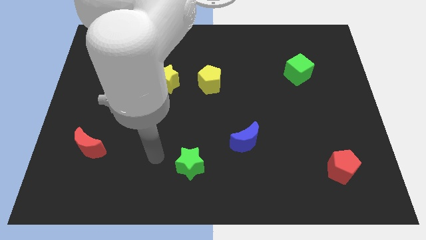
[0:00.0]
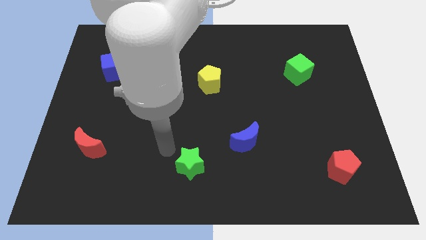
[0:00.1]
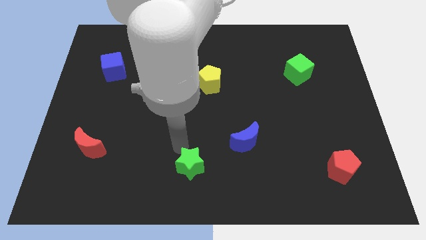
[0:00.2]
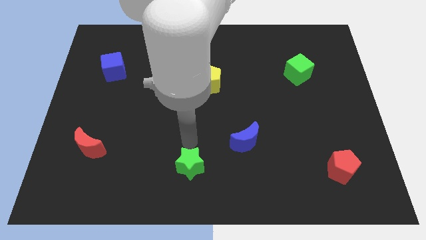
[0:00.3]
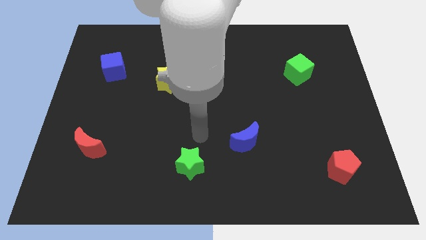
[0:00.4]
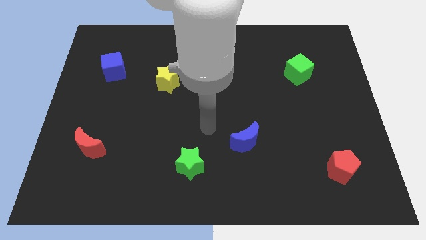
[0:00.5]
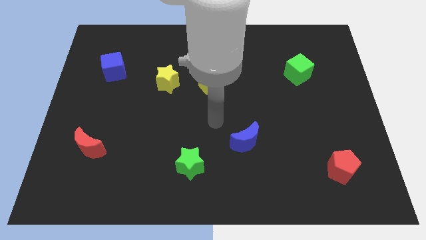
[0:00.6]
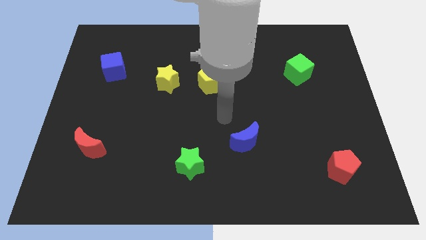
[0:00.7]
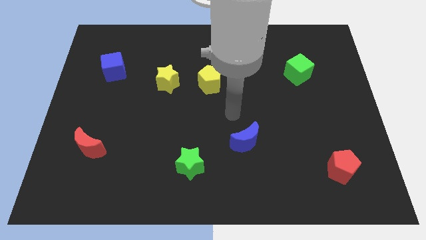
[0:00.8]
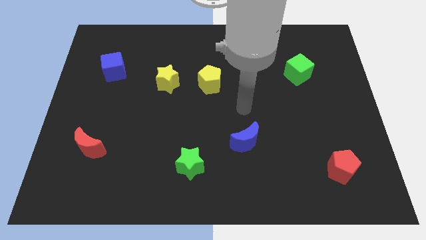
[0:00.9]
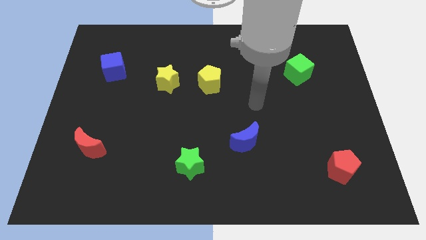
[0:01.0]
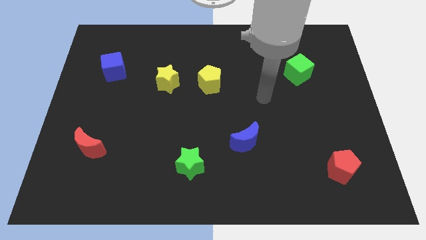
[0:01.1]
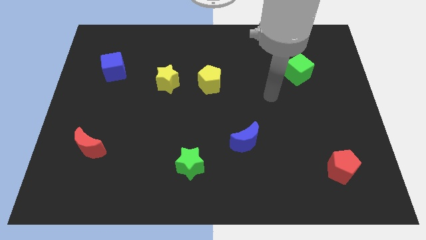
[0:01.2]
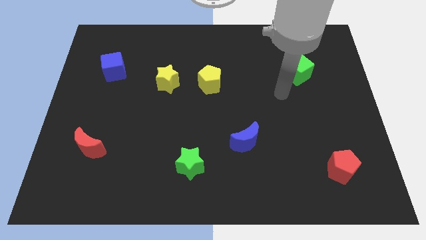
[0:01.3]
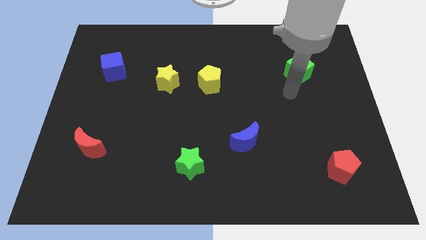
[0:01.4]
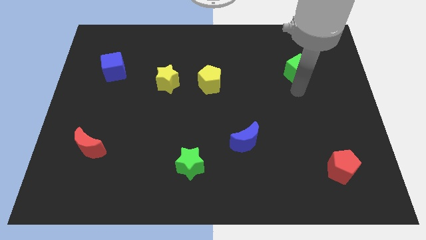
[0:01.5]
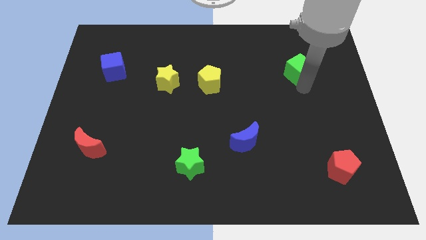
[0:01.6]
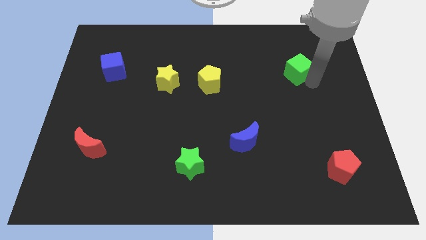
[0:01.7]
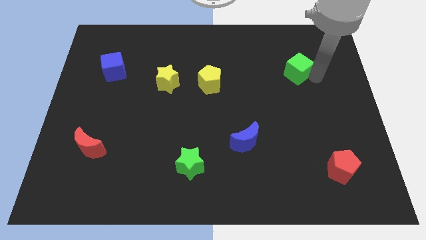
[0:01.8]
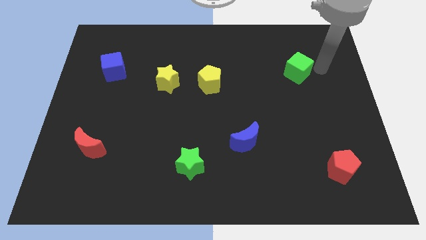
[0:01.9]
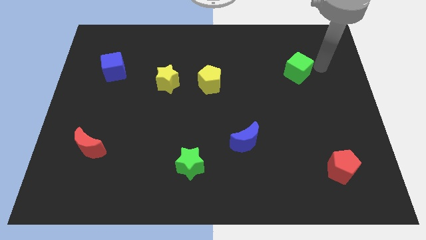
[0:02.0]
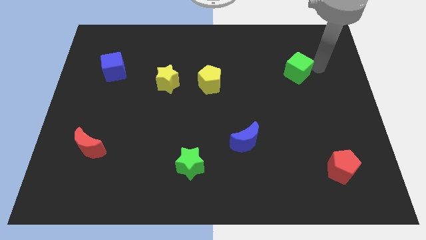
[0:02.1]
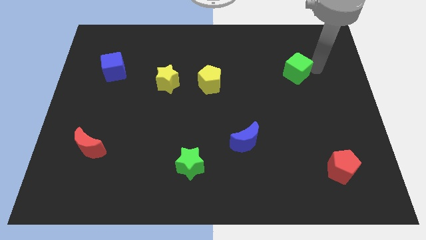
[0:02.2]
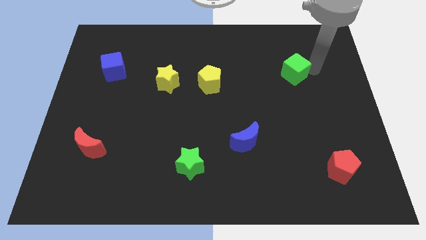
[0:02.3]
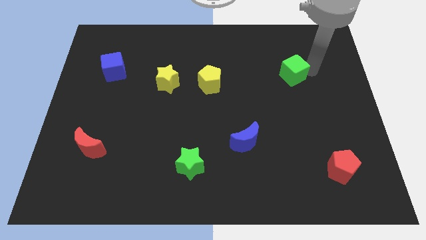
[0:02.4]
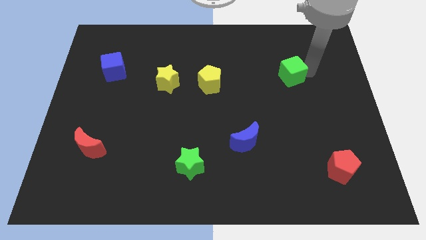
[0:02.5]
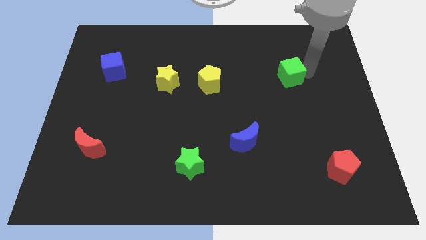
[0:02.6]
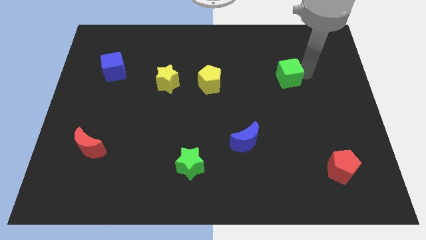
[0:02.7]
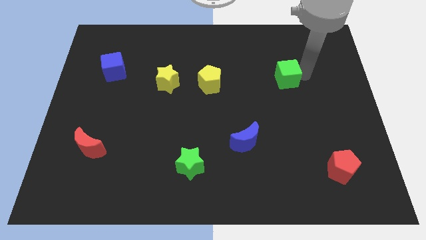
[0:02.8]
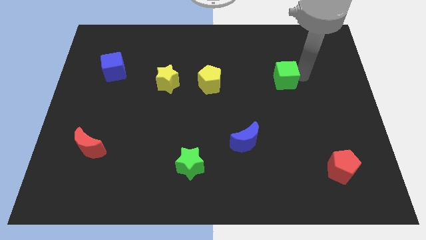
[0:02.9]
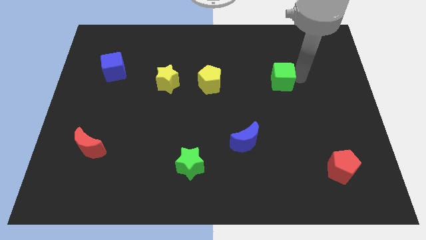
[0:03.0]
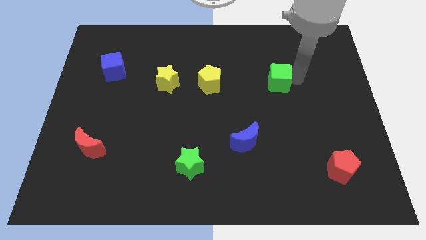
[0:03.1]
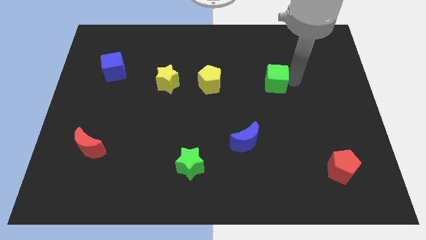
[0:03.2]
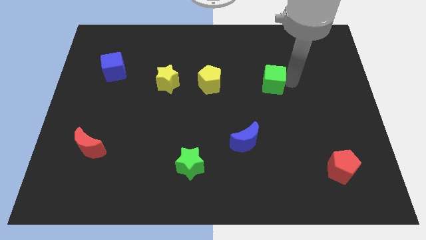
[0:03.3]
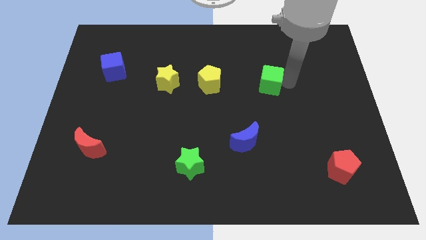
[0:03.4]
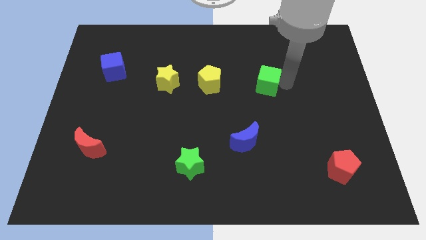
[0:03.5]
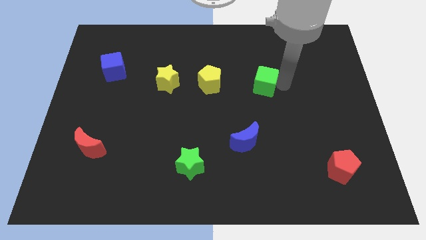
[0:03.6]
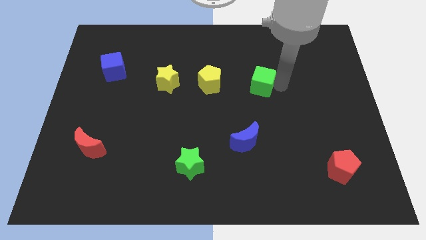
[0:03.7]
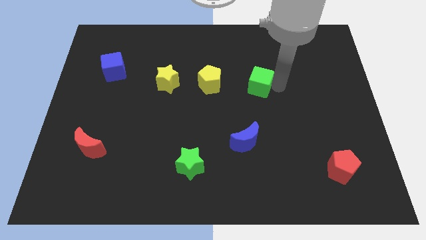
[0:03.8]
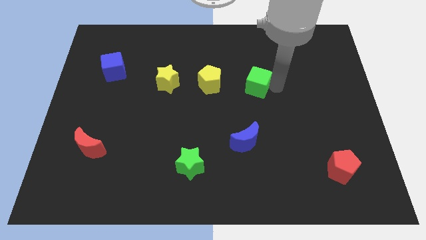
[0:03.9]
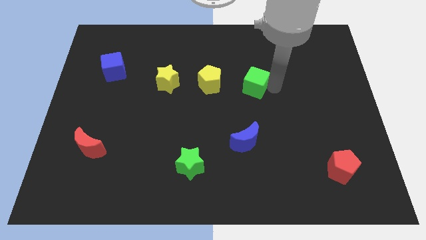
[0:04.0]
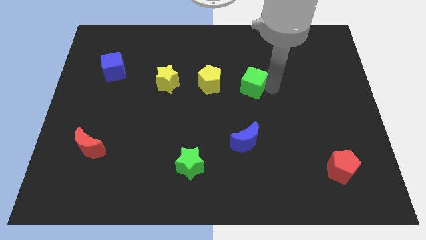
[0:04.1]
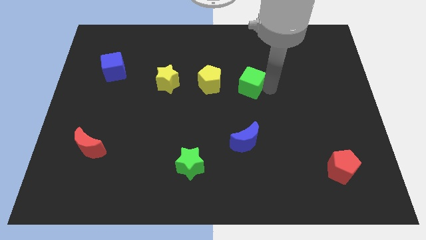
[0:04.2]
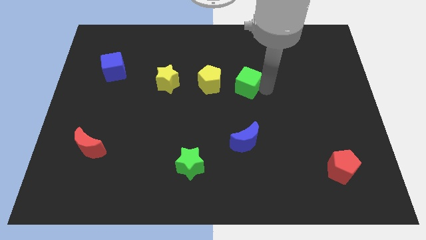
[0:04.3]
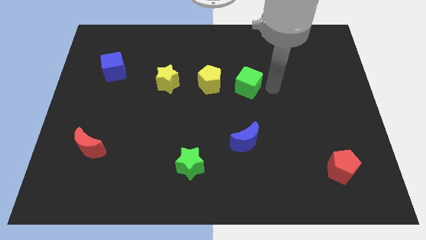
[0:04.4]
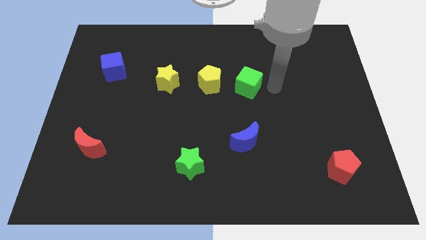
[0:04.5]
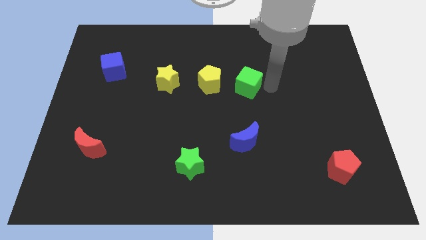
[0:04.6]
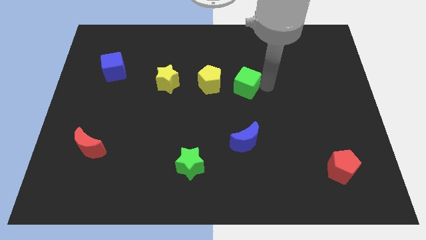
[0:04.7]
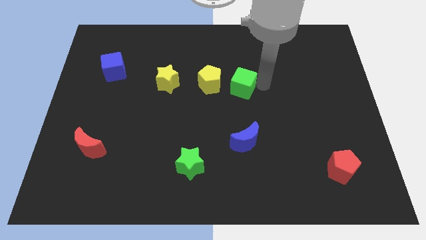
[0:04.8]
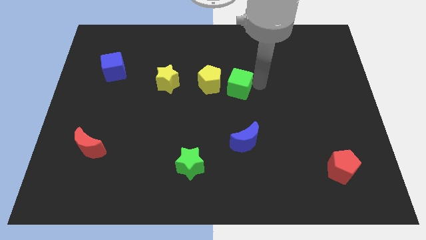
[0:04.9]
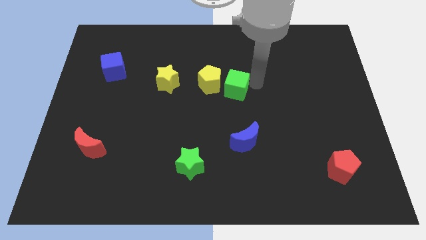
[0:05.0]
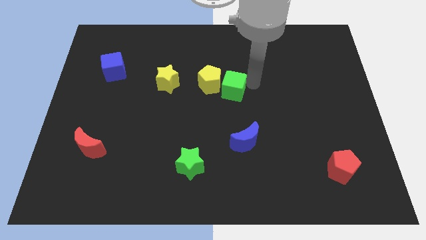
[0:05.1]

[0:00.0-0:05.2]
put the green cube towards the yellow pentagon

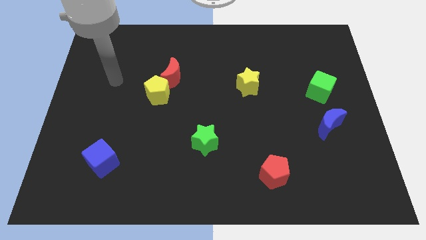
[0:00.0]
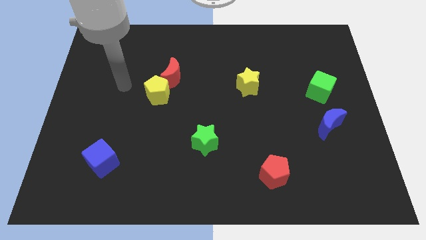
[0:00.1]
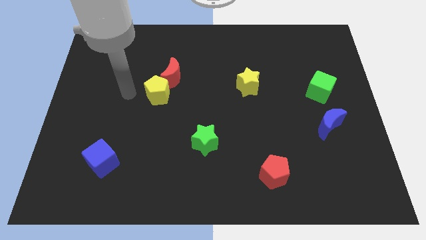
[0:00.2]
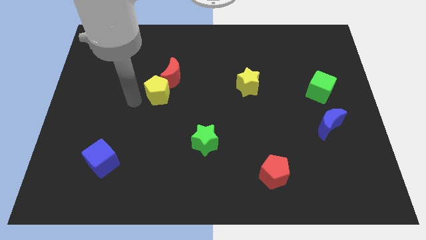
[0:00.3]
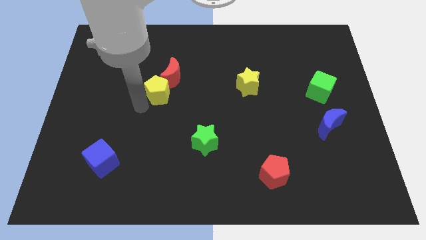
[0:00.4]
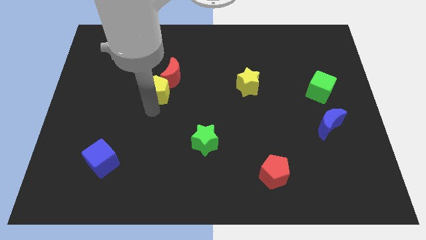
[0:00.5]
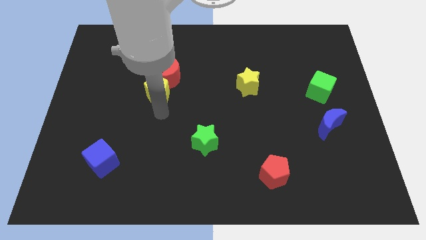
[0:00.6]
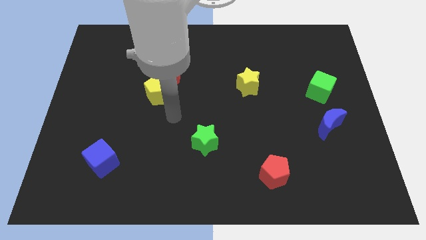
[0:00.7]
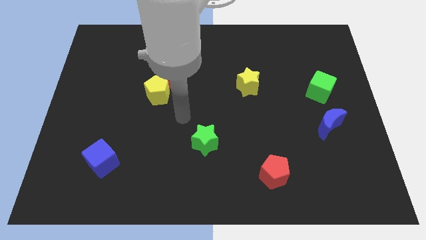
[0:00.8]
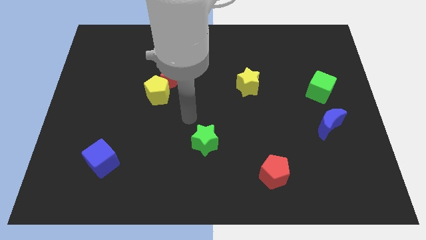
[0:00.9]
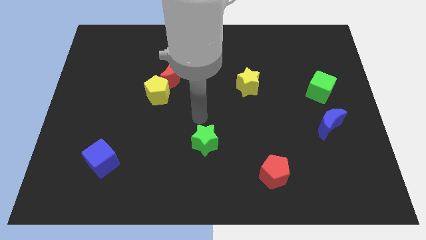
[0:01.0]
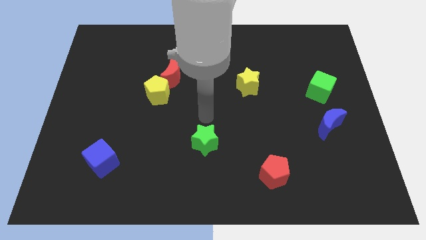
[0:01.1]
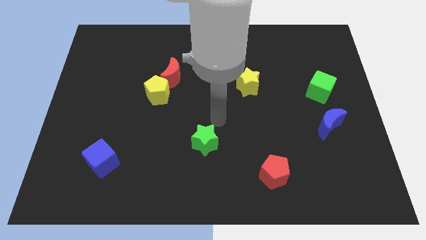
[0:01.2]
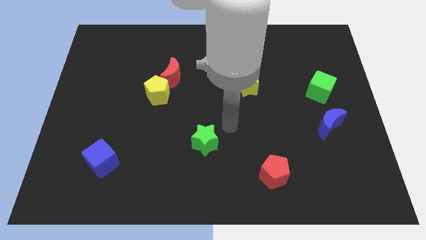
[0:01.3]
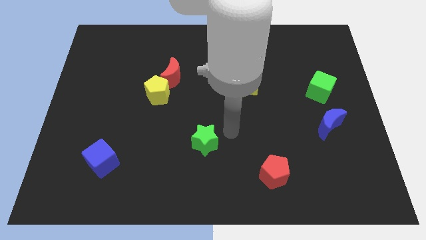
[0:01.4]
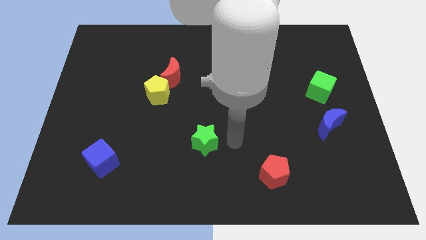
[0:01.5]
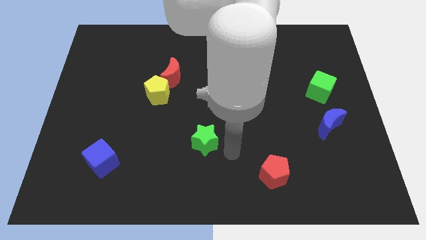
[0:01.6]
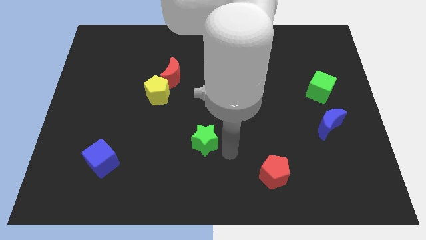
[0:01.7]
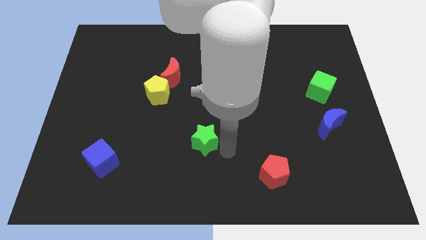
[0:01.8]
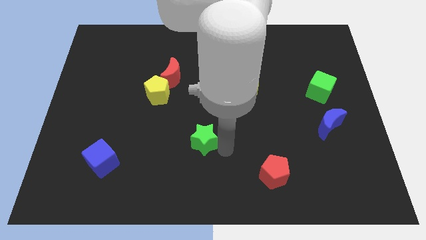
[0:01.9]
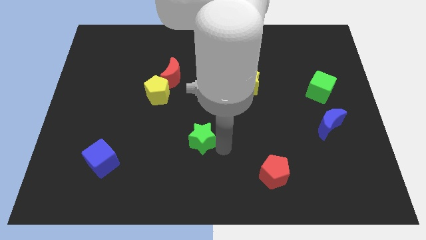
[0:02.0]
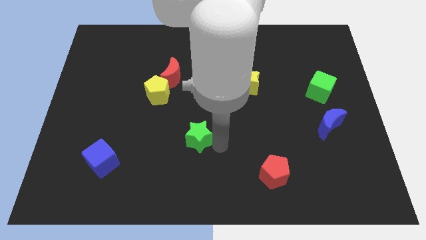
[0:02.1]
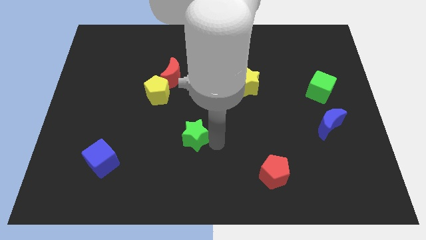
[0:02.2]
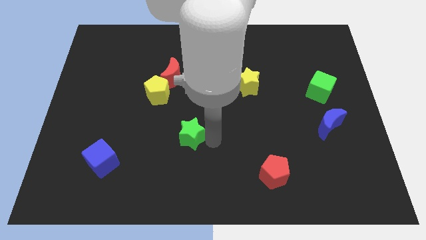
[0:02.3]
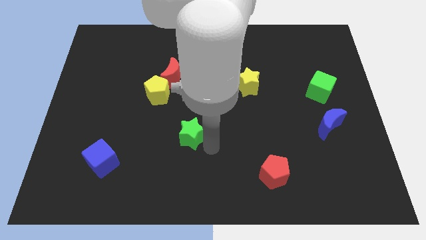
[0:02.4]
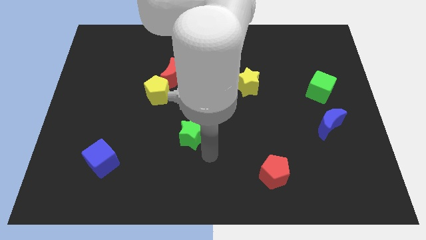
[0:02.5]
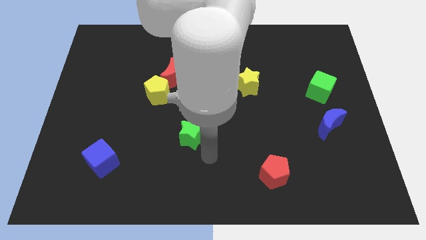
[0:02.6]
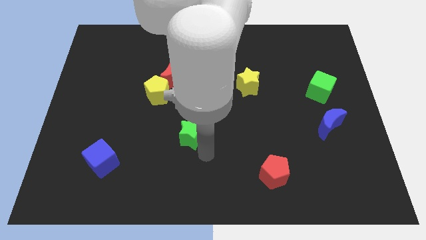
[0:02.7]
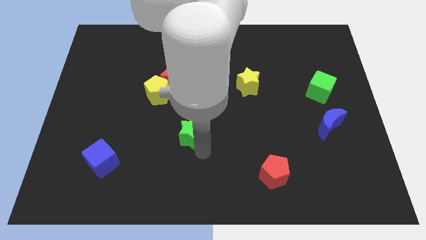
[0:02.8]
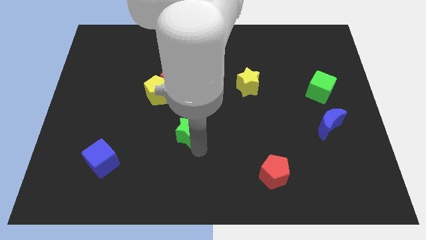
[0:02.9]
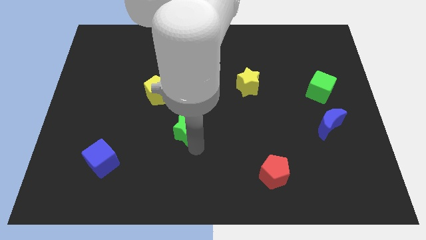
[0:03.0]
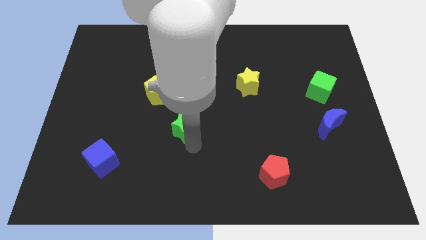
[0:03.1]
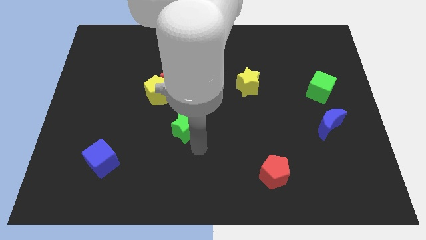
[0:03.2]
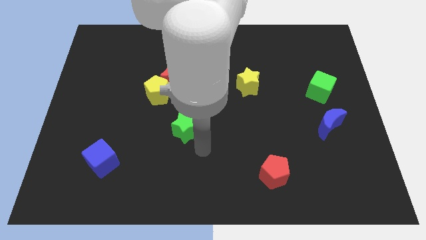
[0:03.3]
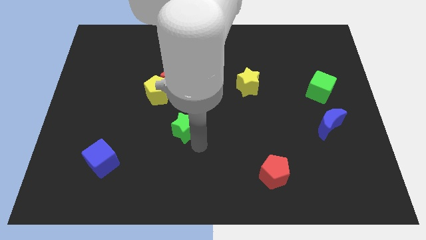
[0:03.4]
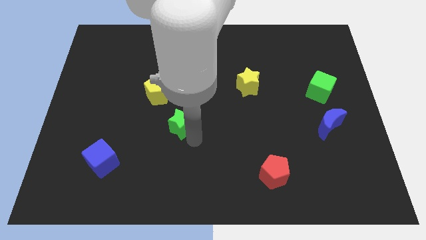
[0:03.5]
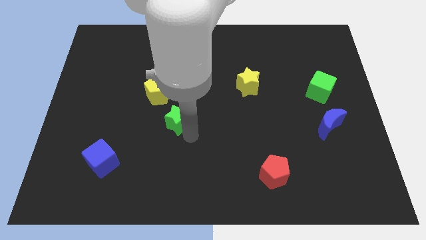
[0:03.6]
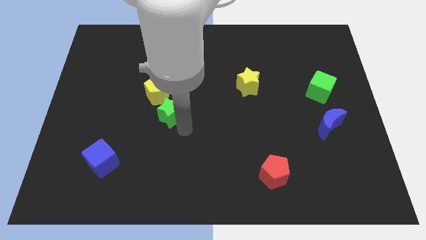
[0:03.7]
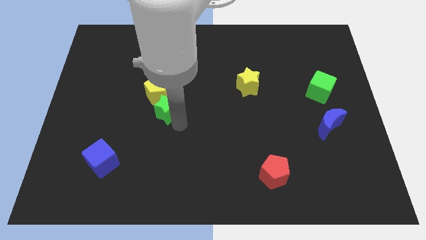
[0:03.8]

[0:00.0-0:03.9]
push the green star to the yellow pentagon
